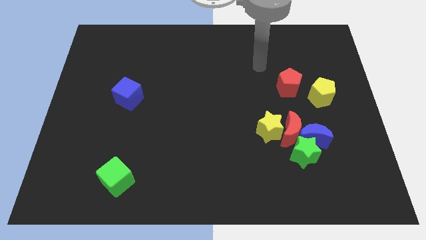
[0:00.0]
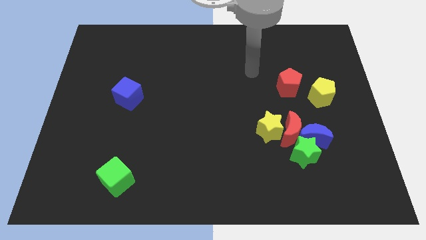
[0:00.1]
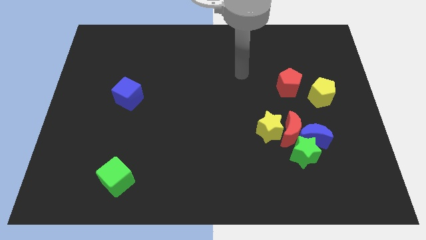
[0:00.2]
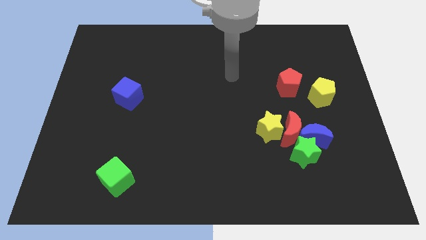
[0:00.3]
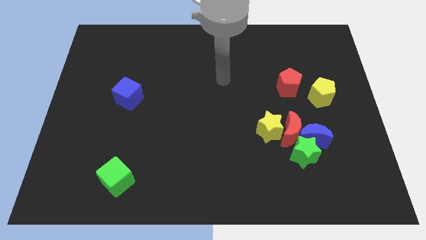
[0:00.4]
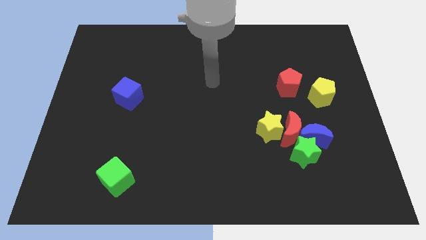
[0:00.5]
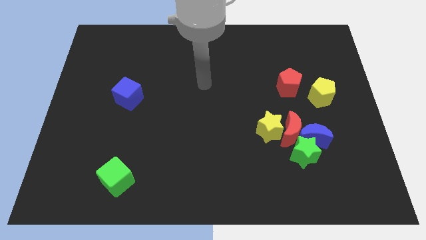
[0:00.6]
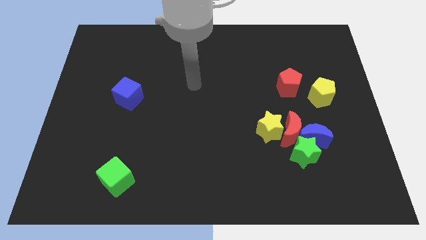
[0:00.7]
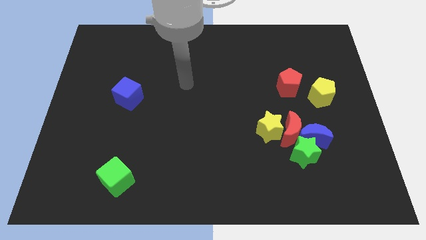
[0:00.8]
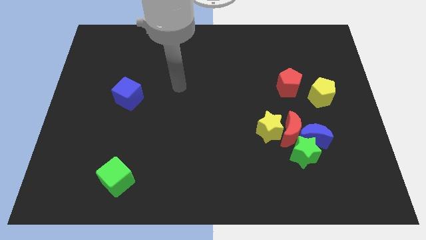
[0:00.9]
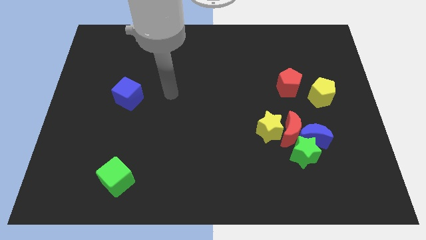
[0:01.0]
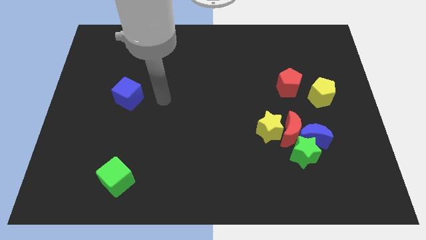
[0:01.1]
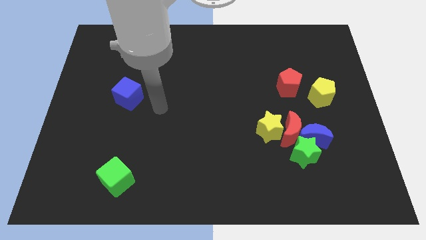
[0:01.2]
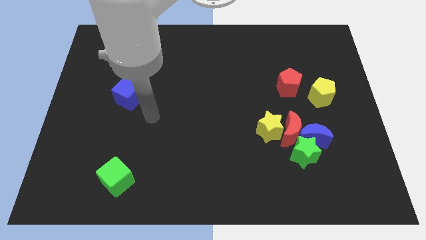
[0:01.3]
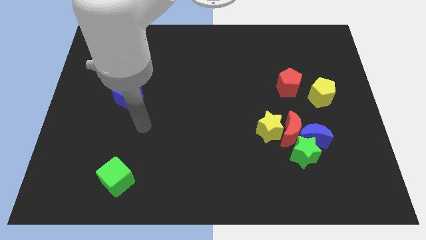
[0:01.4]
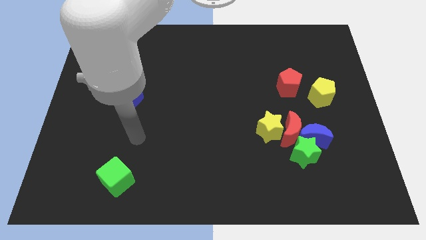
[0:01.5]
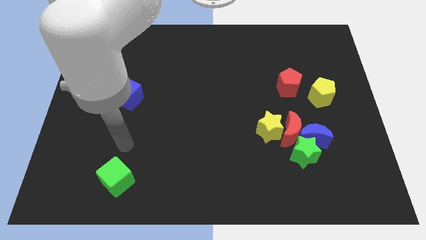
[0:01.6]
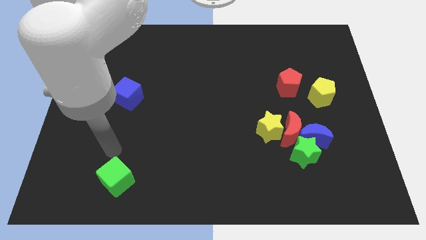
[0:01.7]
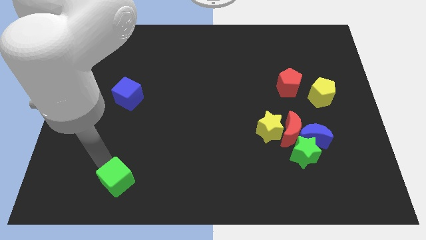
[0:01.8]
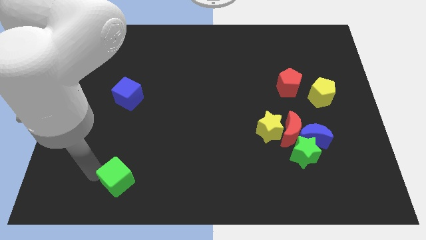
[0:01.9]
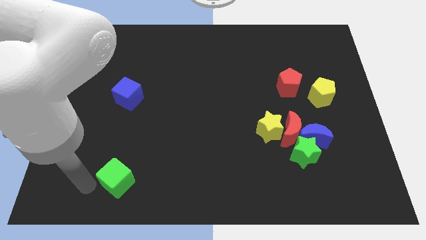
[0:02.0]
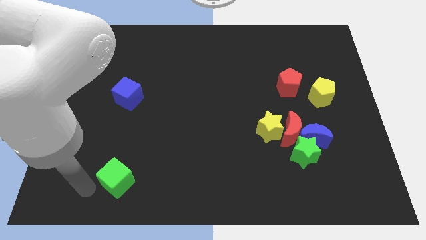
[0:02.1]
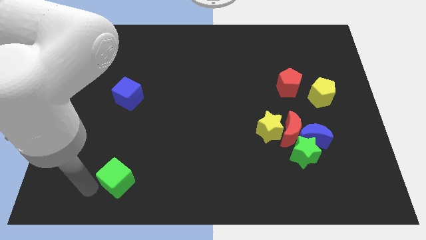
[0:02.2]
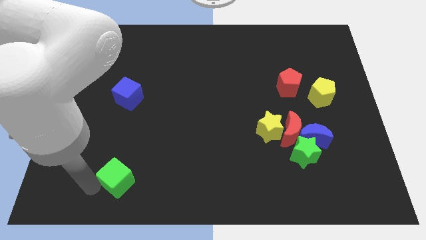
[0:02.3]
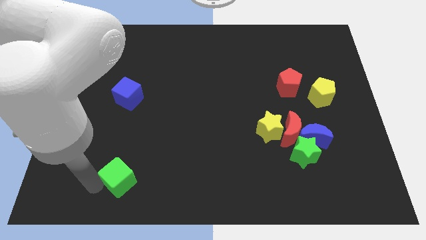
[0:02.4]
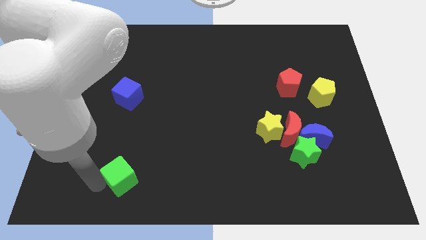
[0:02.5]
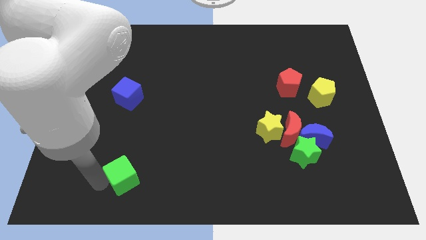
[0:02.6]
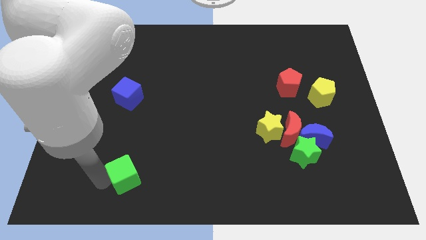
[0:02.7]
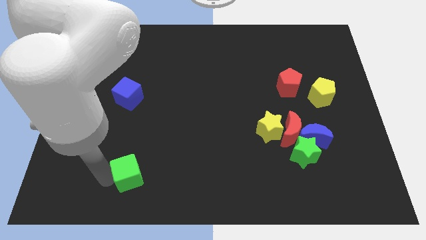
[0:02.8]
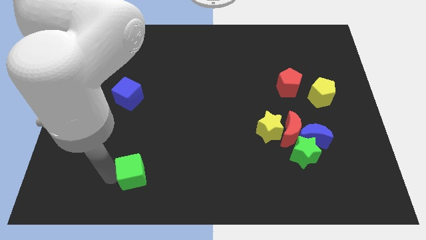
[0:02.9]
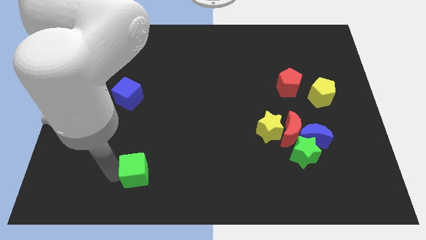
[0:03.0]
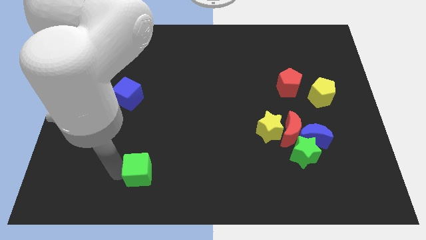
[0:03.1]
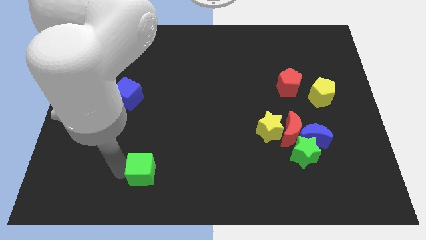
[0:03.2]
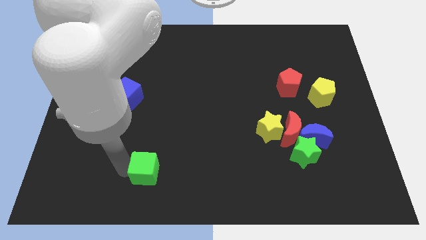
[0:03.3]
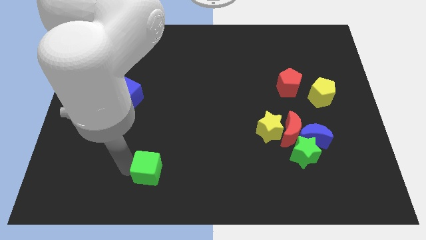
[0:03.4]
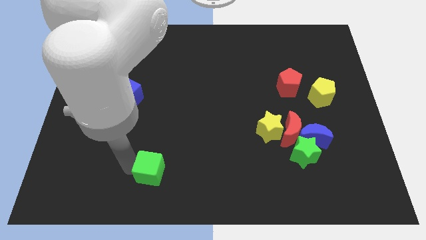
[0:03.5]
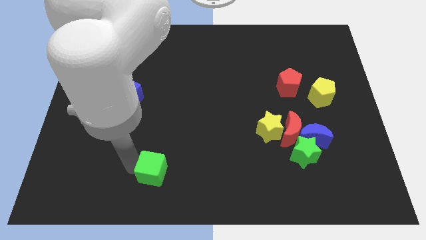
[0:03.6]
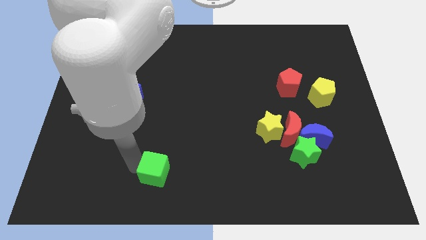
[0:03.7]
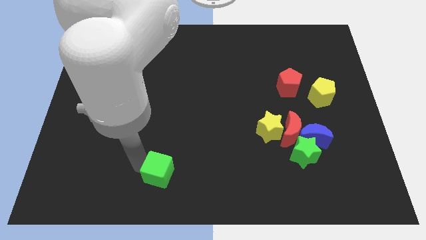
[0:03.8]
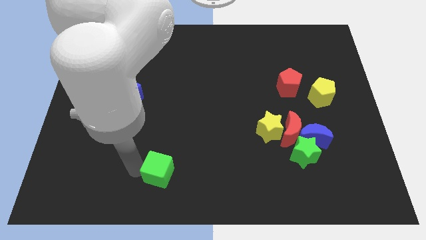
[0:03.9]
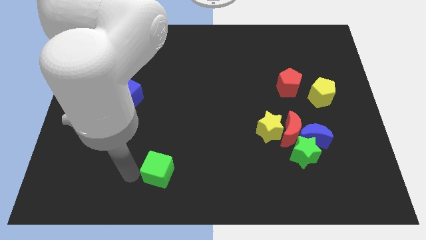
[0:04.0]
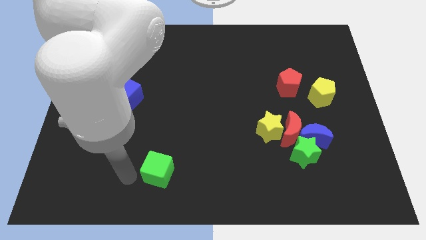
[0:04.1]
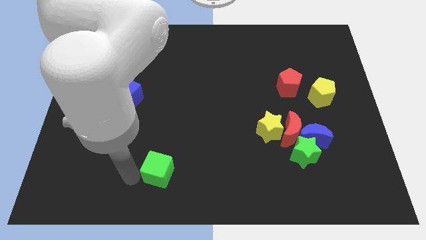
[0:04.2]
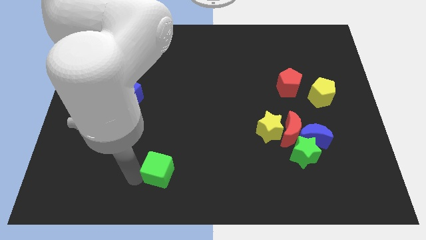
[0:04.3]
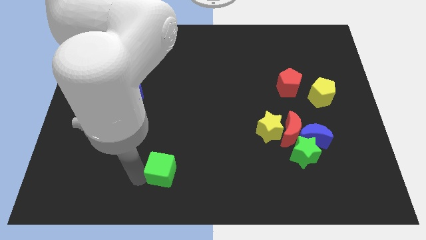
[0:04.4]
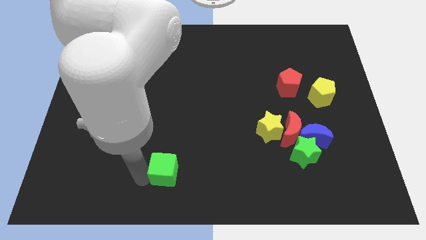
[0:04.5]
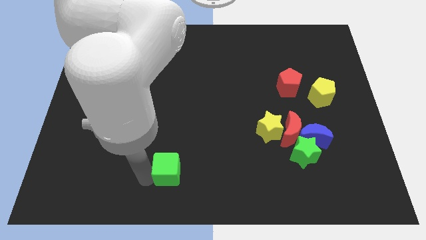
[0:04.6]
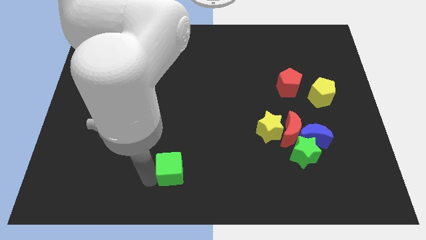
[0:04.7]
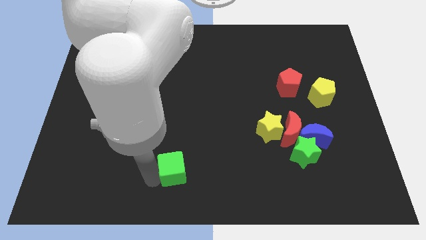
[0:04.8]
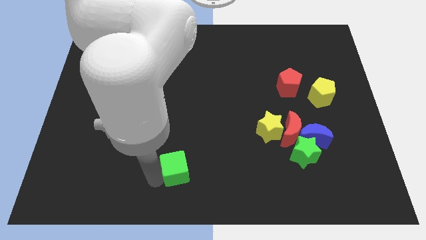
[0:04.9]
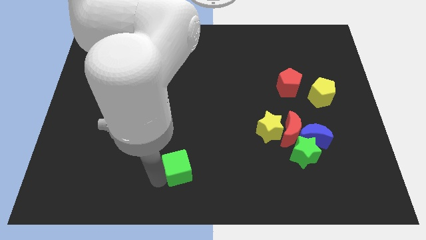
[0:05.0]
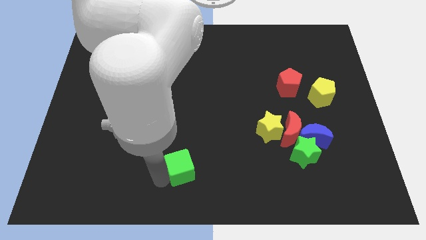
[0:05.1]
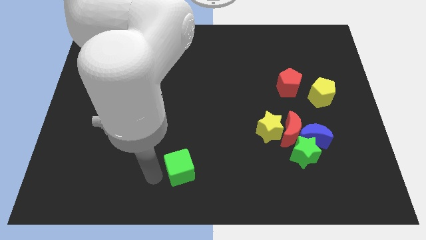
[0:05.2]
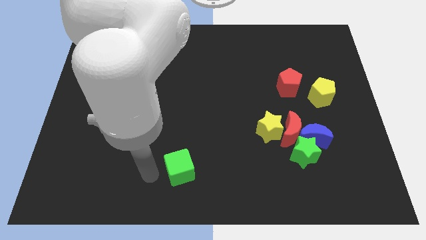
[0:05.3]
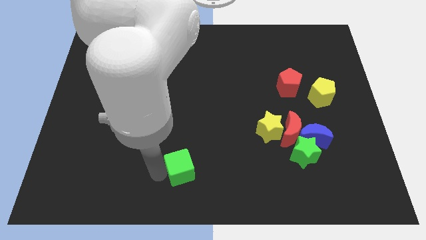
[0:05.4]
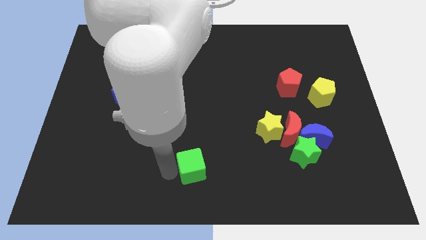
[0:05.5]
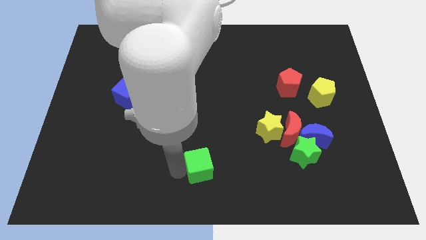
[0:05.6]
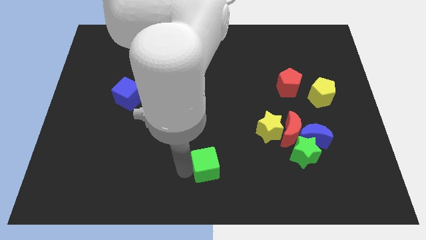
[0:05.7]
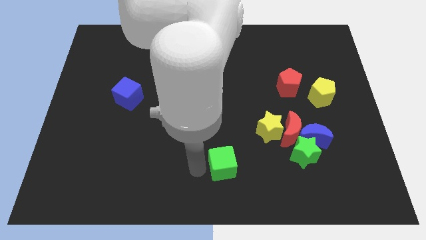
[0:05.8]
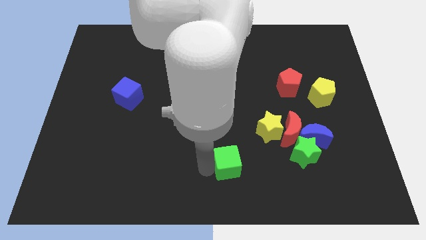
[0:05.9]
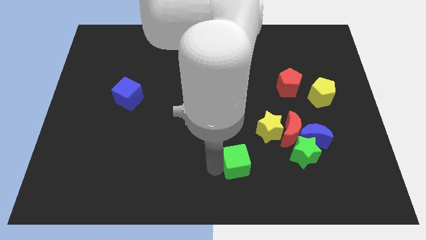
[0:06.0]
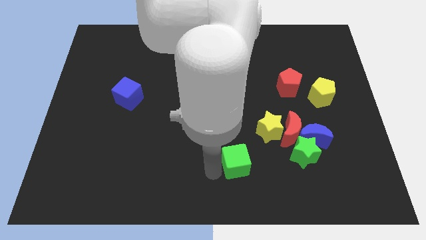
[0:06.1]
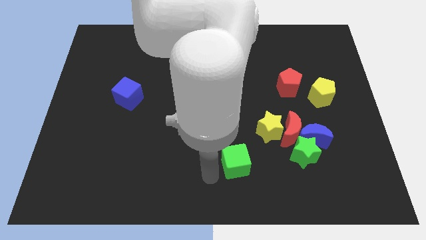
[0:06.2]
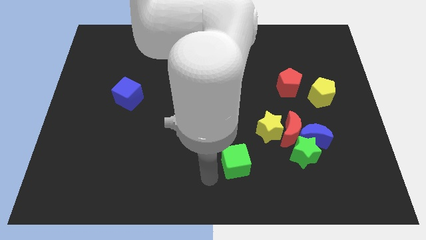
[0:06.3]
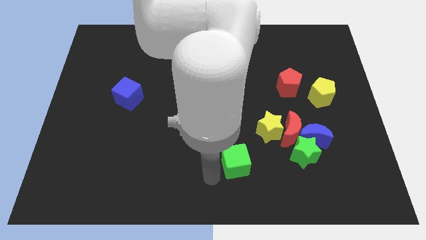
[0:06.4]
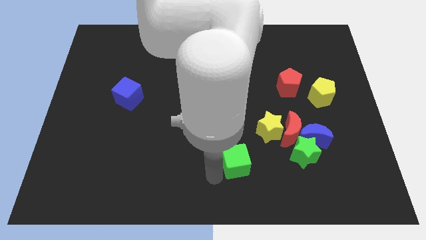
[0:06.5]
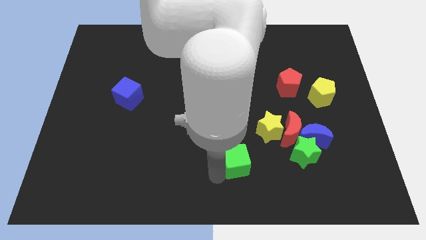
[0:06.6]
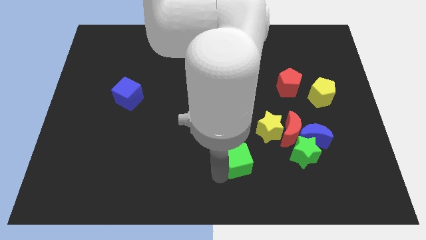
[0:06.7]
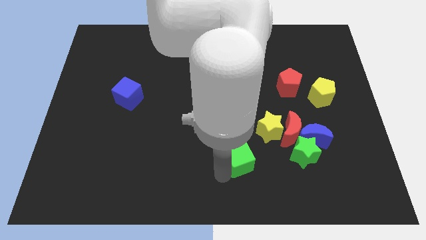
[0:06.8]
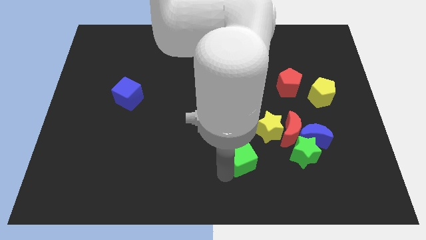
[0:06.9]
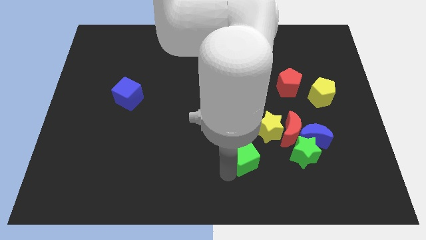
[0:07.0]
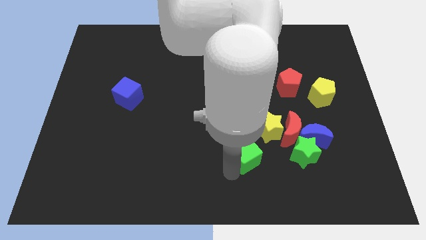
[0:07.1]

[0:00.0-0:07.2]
put the green cube to the bottom left side of the red moon

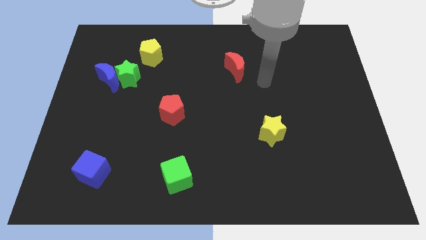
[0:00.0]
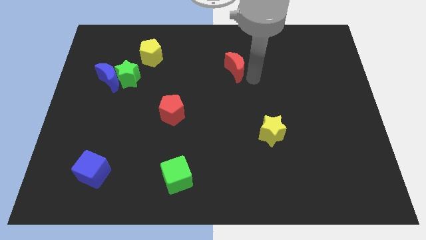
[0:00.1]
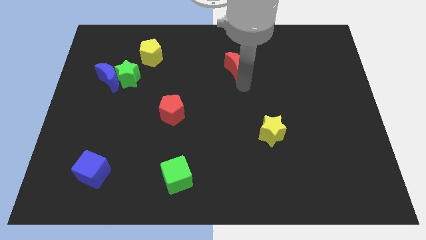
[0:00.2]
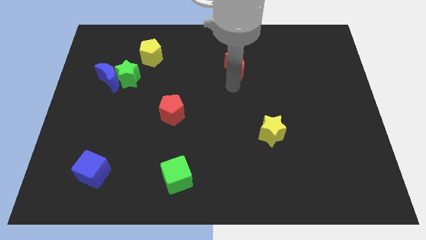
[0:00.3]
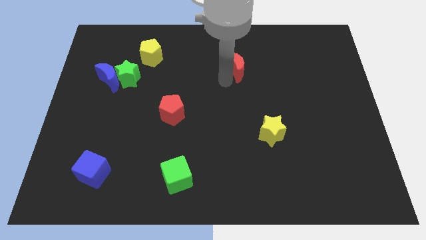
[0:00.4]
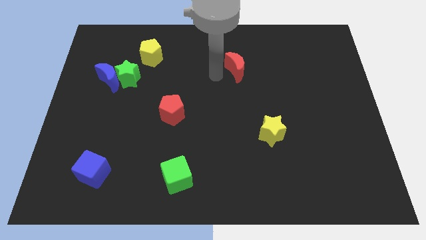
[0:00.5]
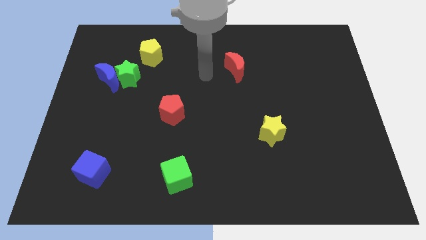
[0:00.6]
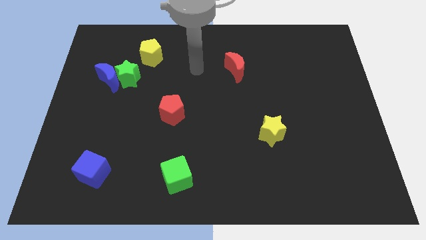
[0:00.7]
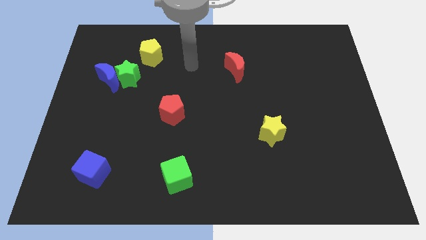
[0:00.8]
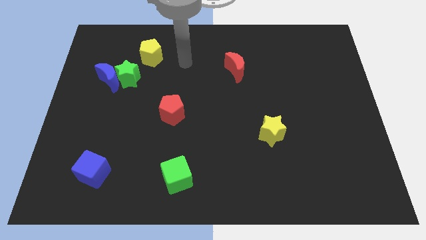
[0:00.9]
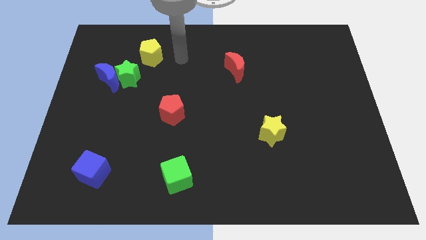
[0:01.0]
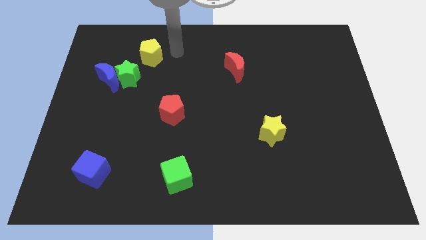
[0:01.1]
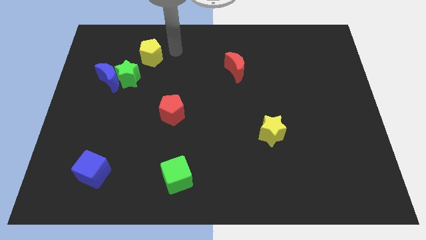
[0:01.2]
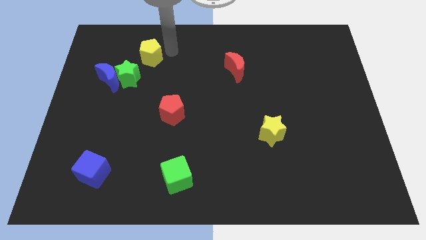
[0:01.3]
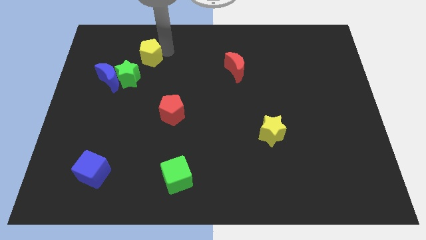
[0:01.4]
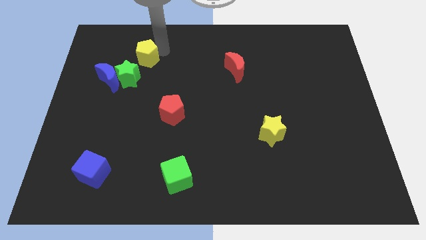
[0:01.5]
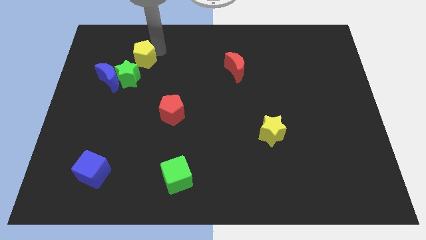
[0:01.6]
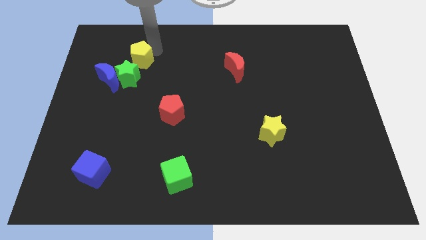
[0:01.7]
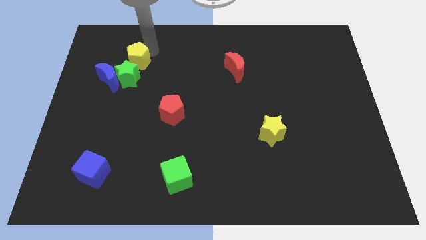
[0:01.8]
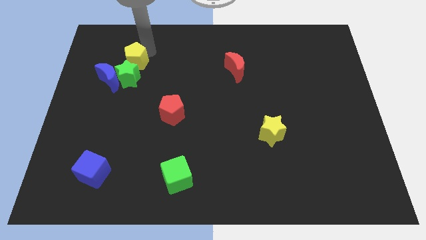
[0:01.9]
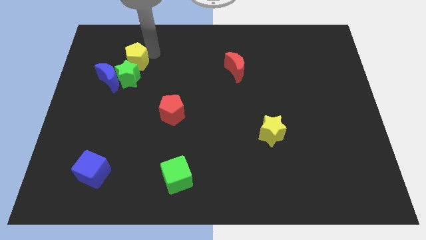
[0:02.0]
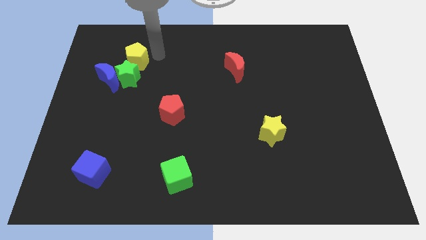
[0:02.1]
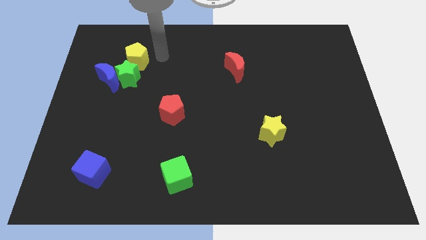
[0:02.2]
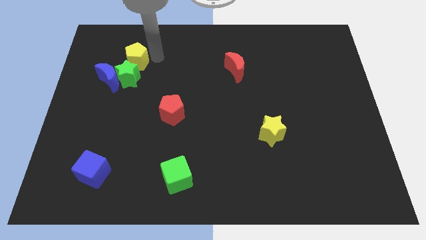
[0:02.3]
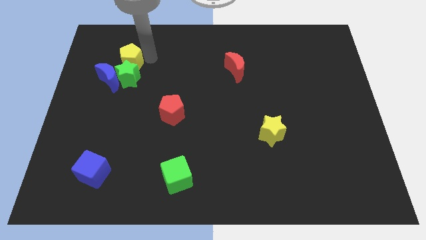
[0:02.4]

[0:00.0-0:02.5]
put the yellow pentagon diagonally up and to the left of the green star
